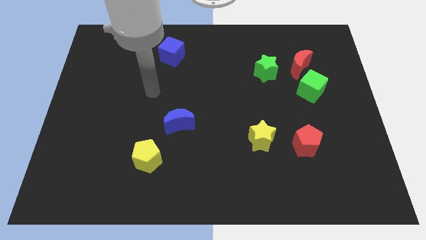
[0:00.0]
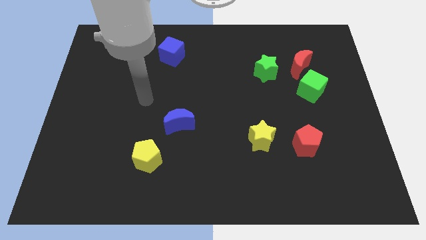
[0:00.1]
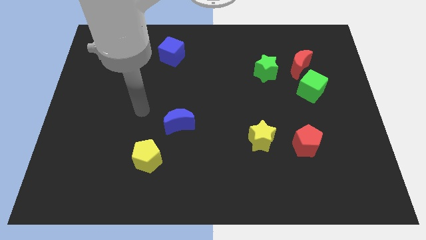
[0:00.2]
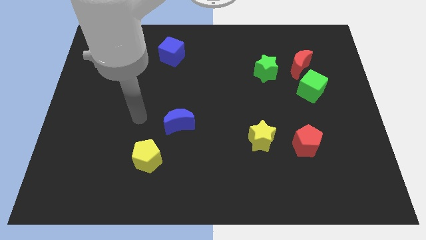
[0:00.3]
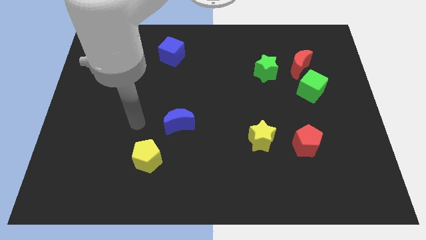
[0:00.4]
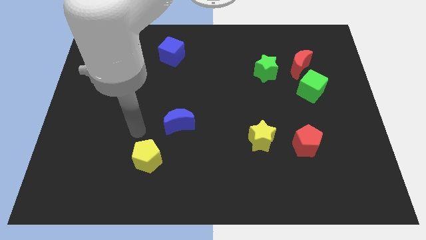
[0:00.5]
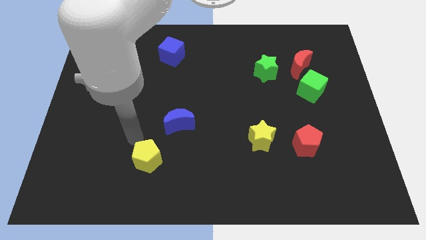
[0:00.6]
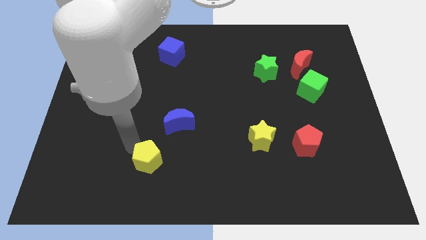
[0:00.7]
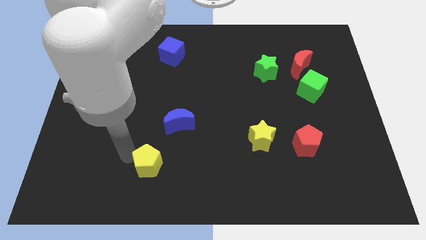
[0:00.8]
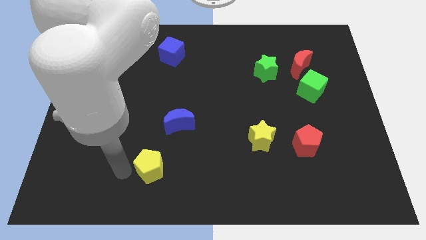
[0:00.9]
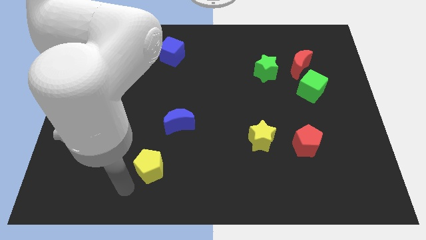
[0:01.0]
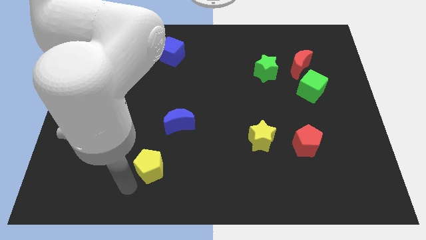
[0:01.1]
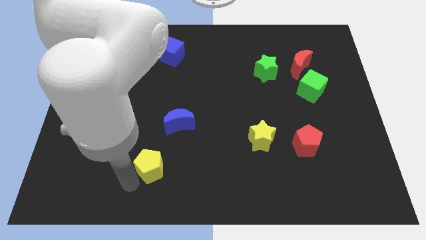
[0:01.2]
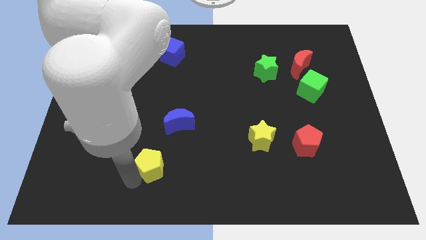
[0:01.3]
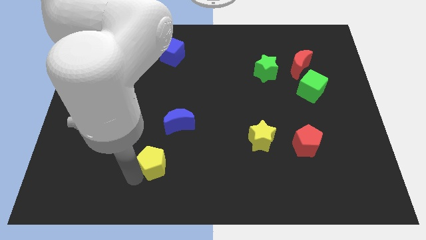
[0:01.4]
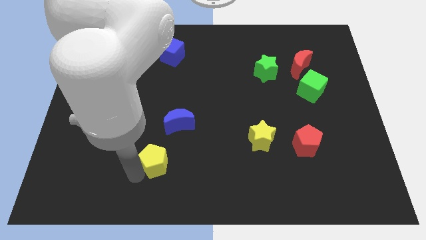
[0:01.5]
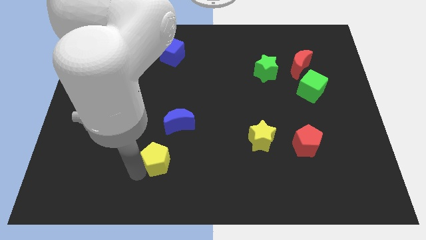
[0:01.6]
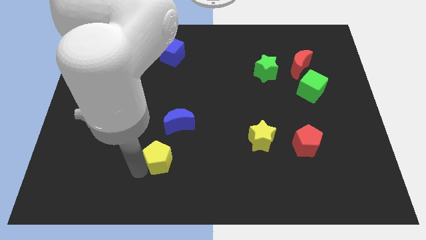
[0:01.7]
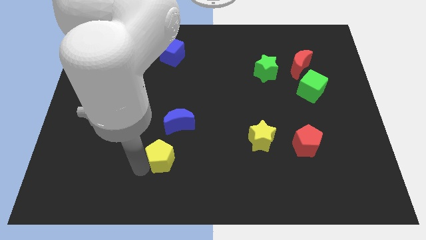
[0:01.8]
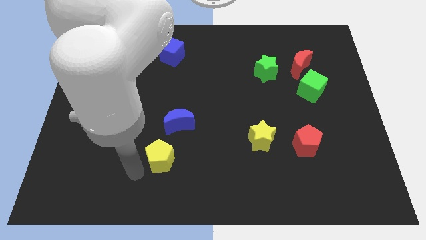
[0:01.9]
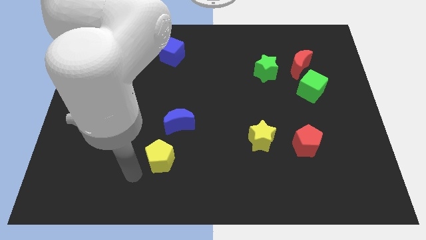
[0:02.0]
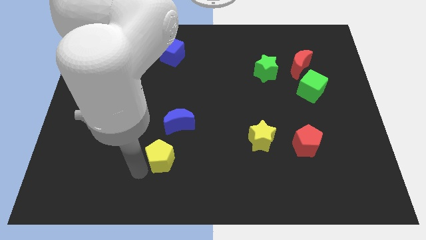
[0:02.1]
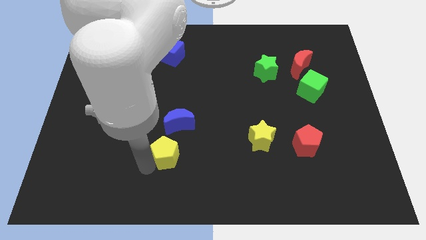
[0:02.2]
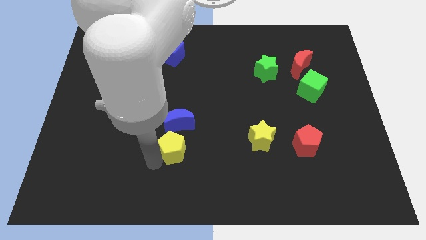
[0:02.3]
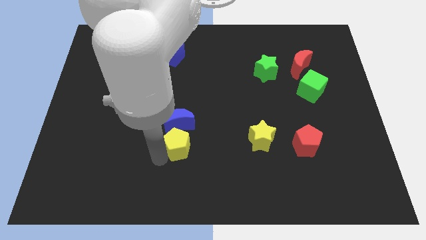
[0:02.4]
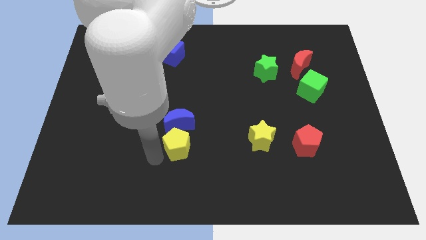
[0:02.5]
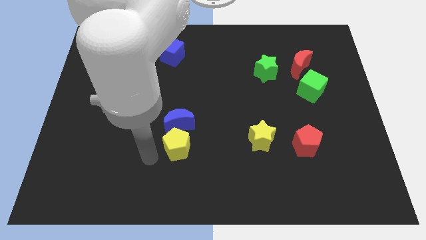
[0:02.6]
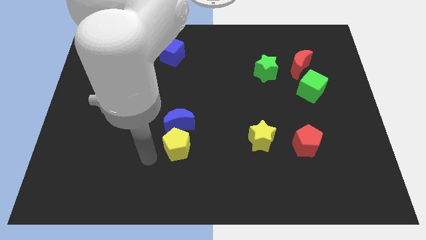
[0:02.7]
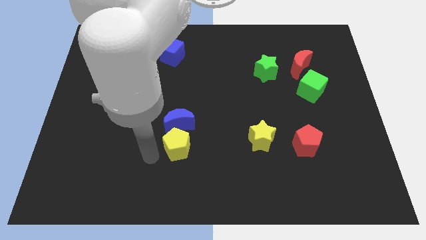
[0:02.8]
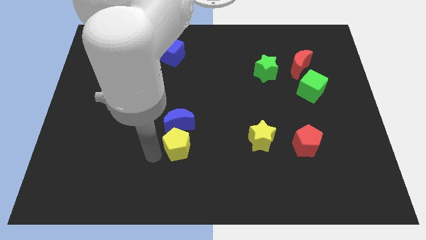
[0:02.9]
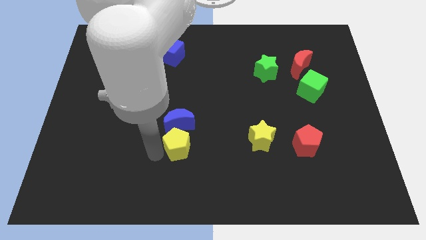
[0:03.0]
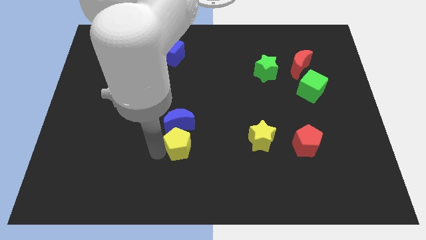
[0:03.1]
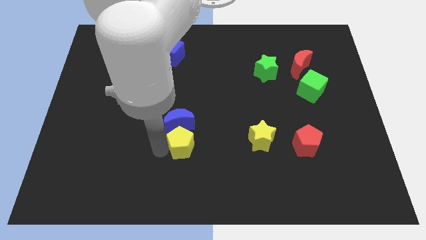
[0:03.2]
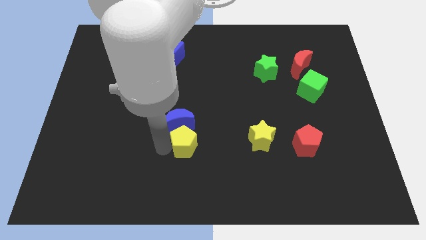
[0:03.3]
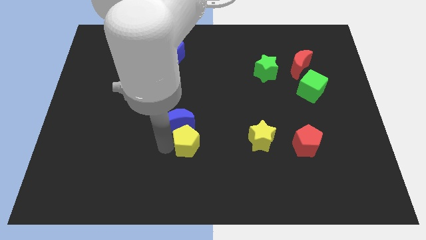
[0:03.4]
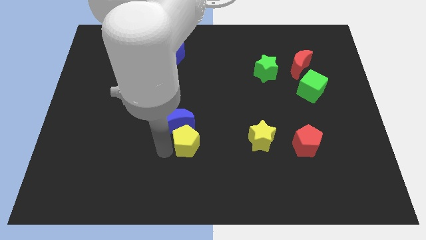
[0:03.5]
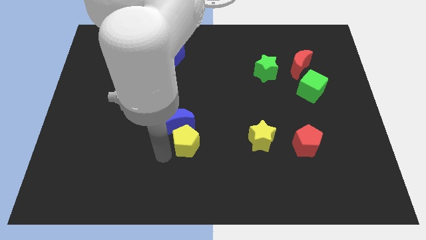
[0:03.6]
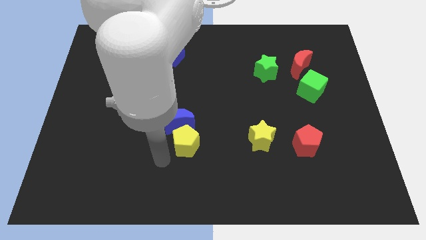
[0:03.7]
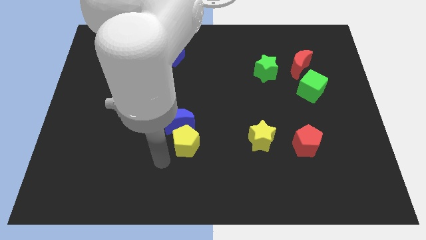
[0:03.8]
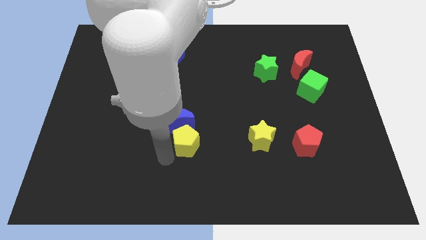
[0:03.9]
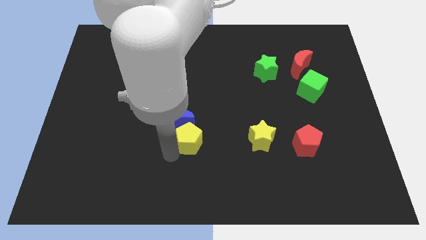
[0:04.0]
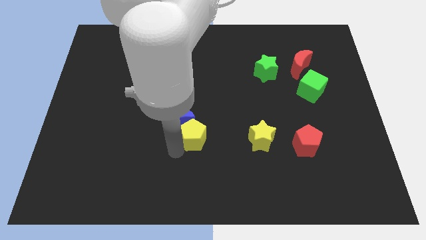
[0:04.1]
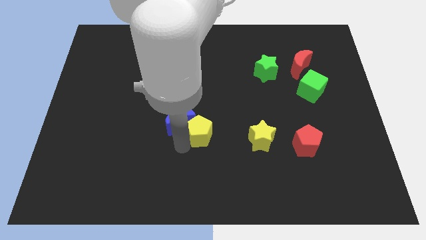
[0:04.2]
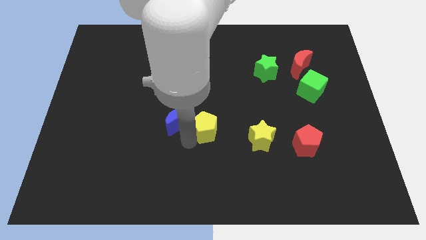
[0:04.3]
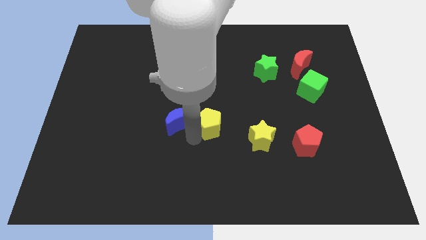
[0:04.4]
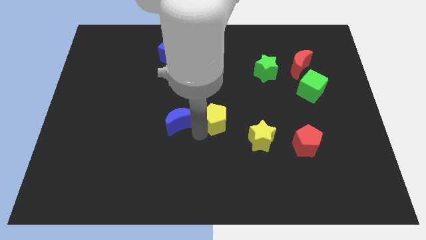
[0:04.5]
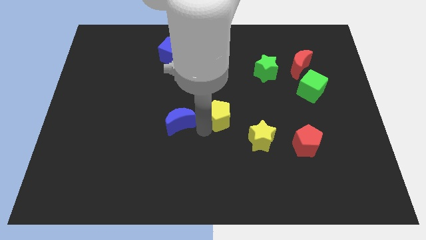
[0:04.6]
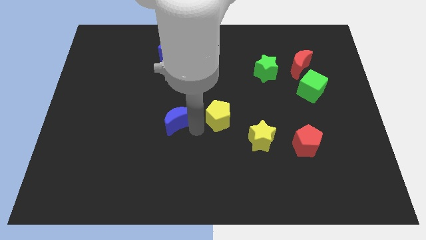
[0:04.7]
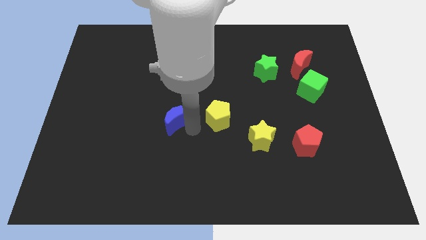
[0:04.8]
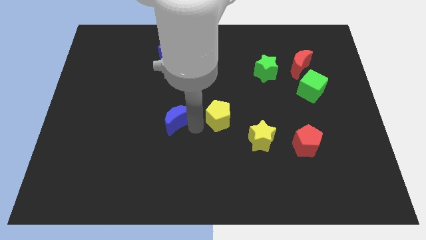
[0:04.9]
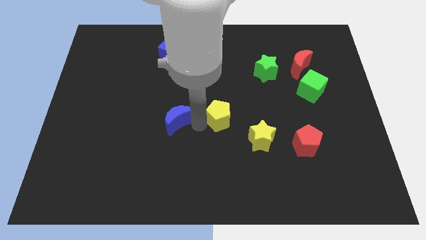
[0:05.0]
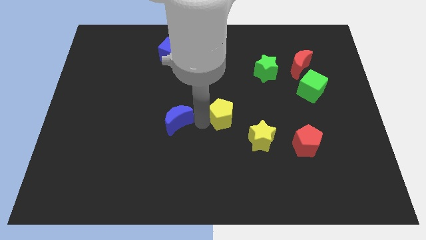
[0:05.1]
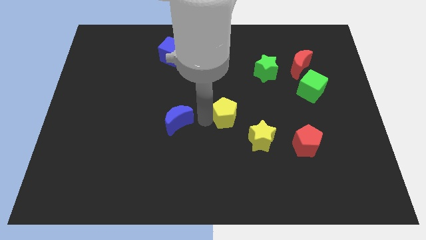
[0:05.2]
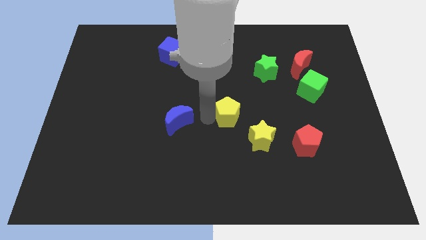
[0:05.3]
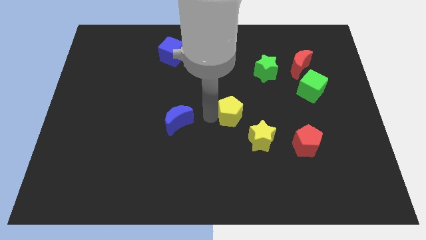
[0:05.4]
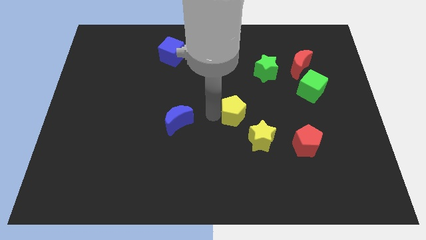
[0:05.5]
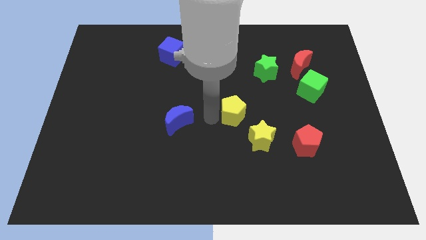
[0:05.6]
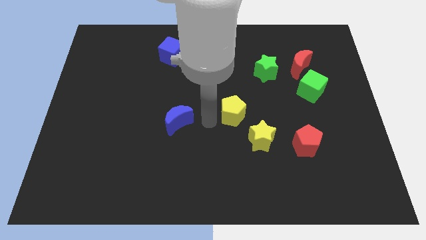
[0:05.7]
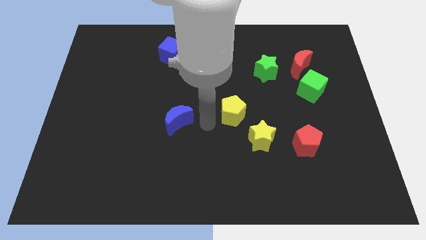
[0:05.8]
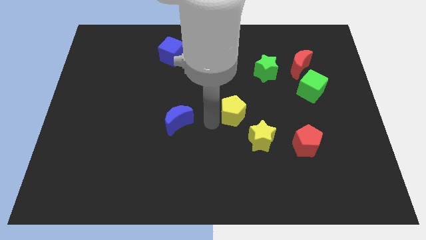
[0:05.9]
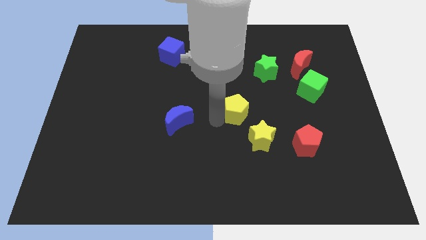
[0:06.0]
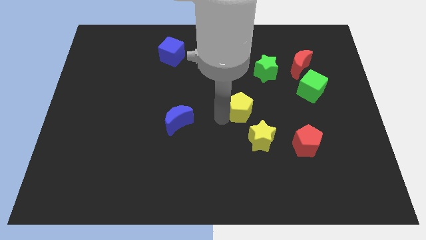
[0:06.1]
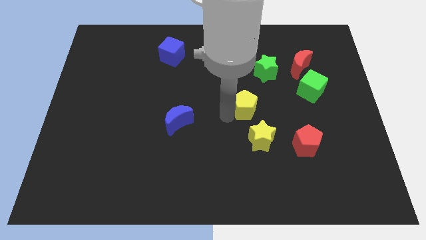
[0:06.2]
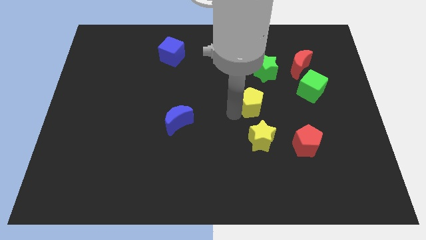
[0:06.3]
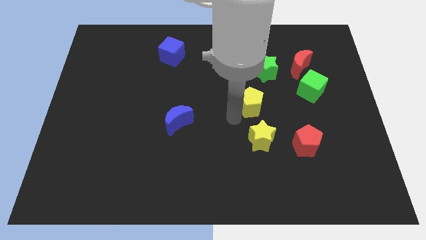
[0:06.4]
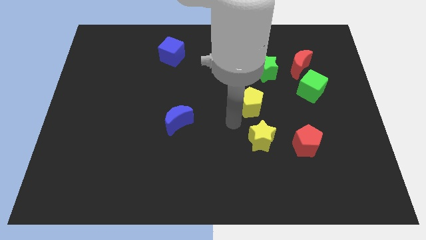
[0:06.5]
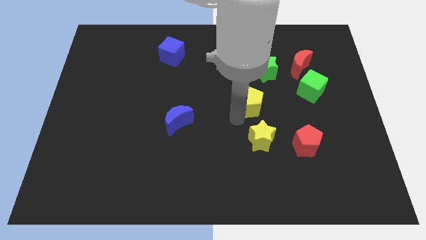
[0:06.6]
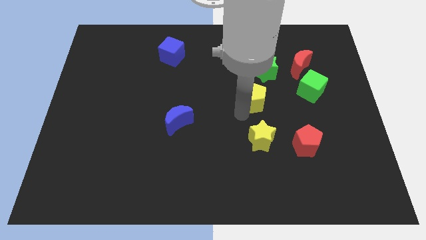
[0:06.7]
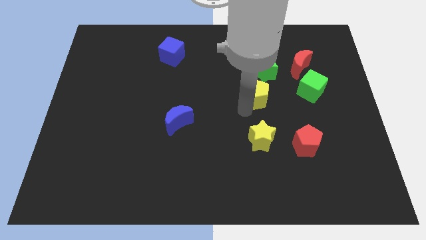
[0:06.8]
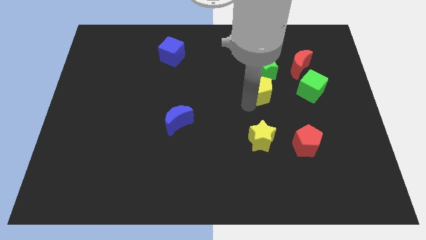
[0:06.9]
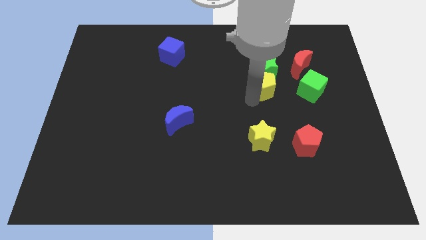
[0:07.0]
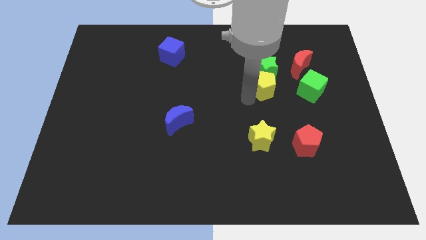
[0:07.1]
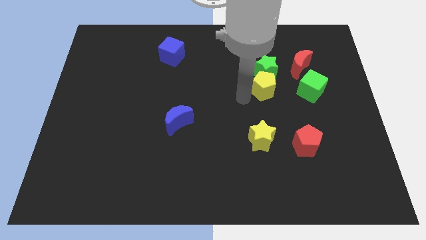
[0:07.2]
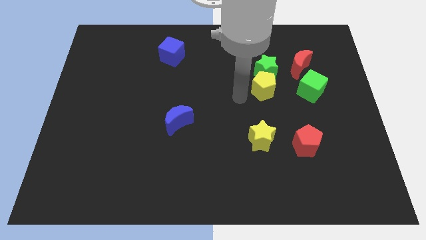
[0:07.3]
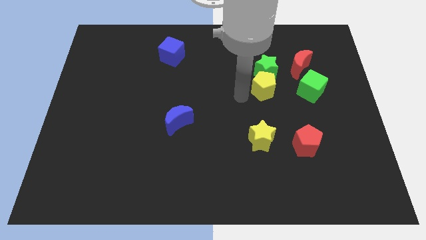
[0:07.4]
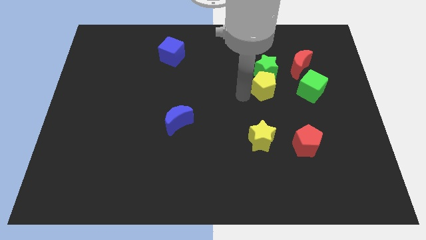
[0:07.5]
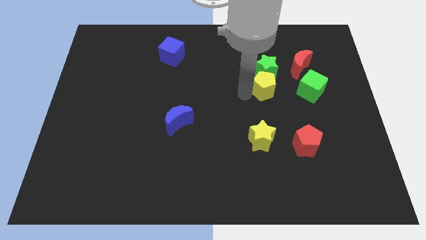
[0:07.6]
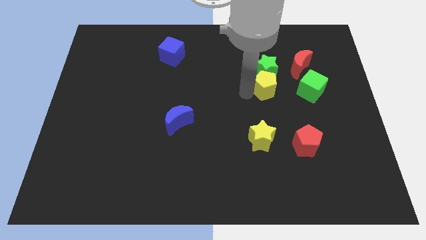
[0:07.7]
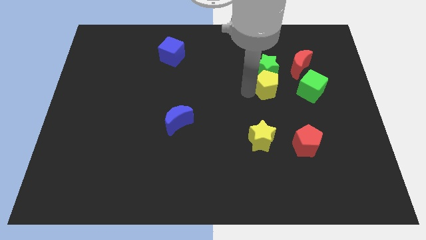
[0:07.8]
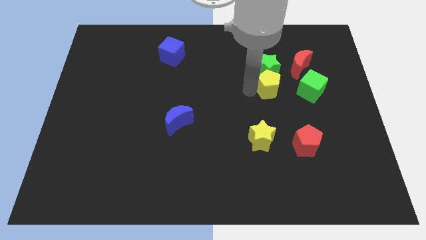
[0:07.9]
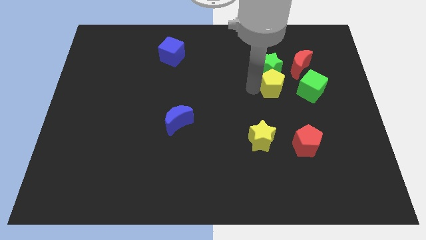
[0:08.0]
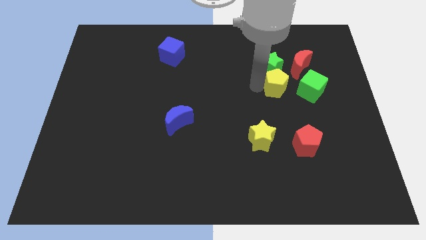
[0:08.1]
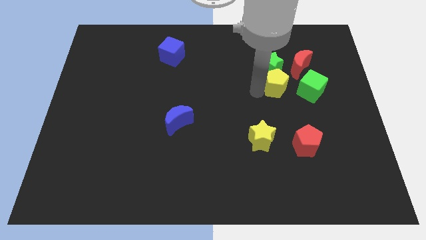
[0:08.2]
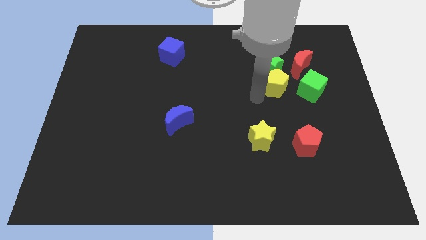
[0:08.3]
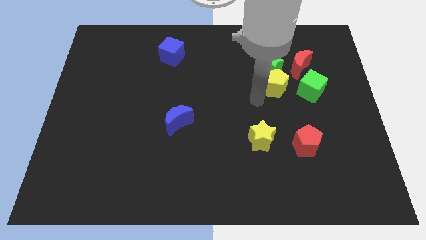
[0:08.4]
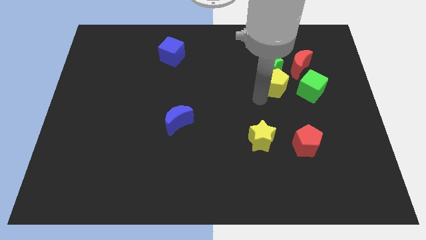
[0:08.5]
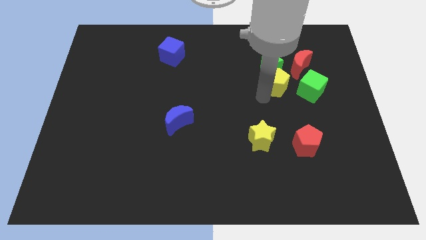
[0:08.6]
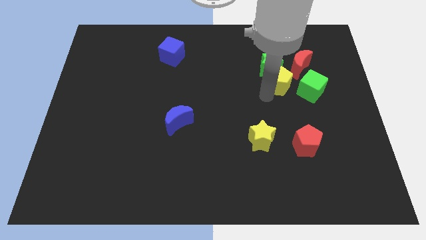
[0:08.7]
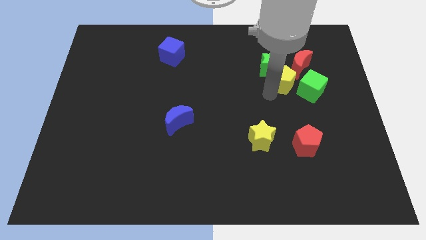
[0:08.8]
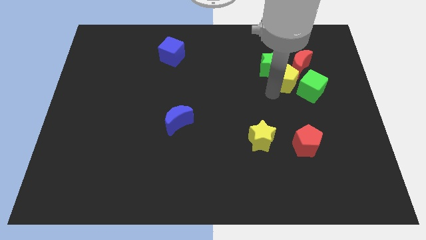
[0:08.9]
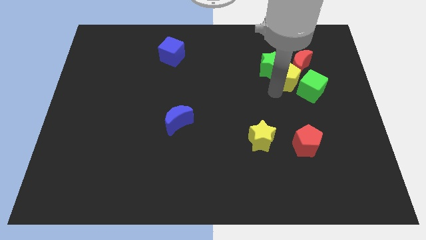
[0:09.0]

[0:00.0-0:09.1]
slide the yellow pentagon next to the red moon
